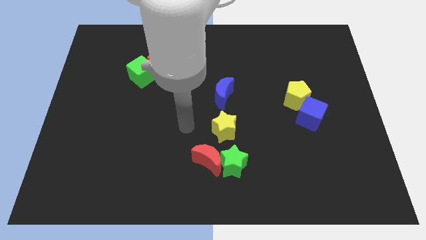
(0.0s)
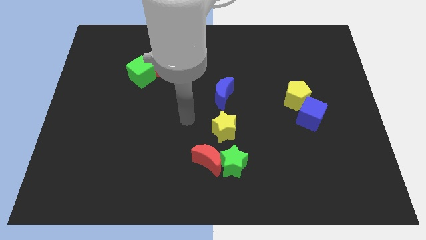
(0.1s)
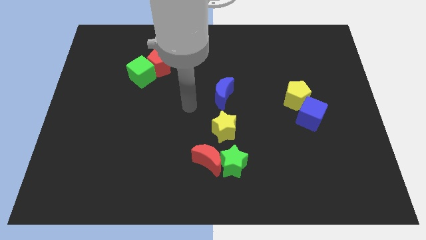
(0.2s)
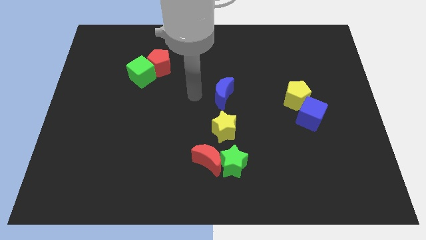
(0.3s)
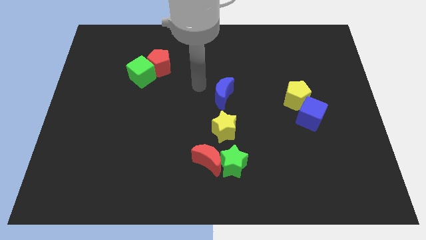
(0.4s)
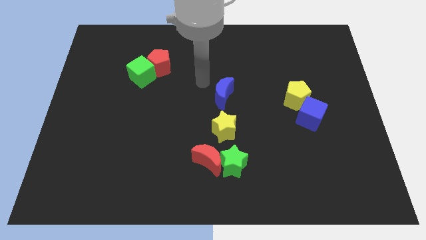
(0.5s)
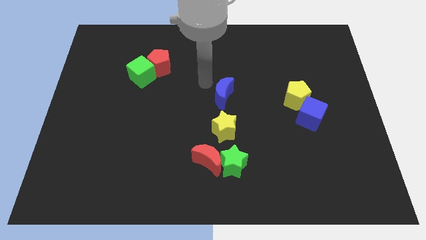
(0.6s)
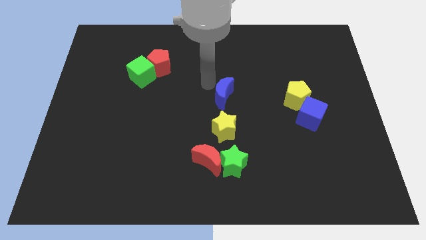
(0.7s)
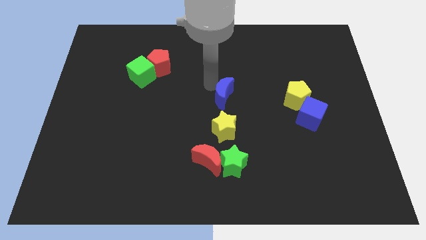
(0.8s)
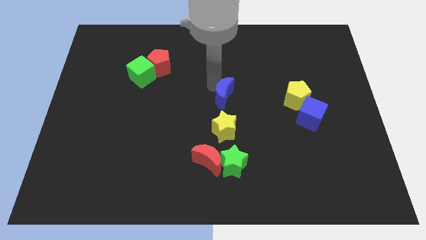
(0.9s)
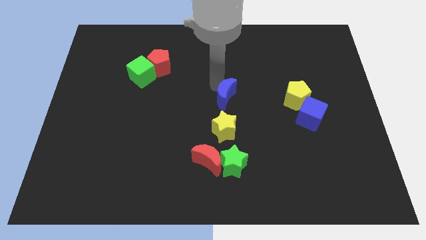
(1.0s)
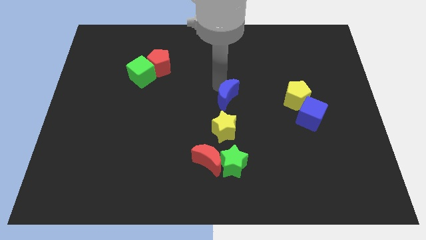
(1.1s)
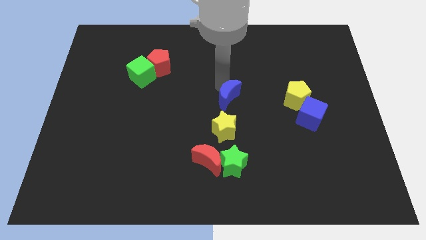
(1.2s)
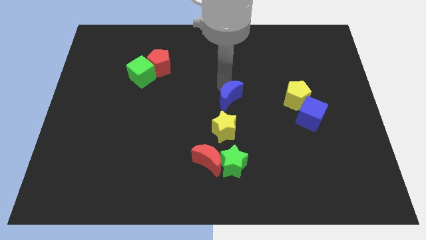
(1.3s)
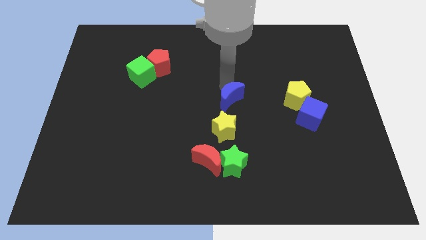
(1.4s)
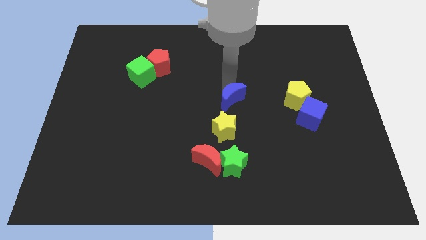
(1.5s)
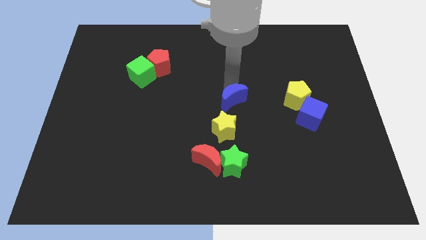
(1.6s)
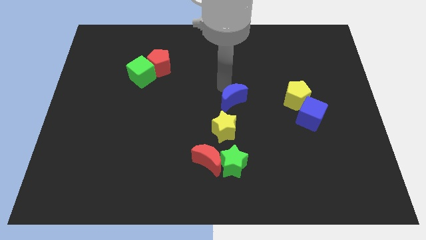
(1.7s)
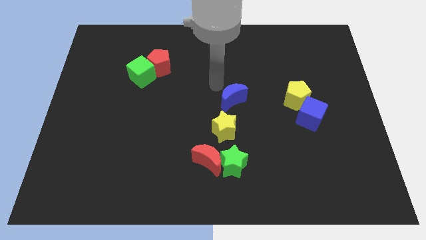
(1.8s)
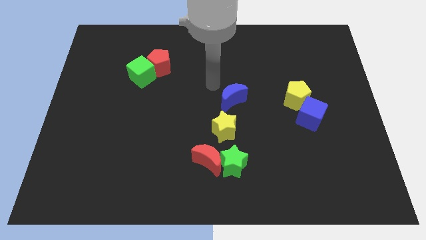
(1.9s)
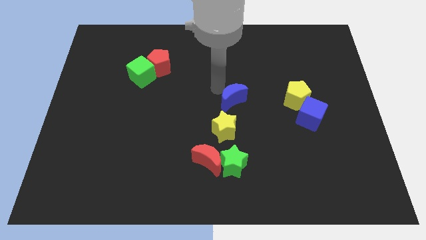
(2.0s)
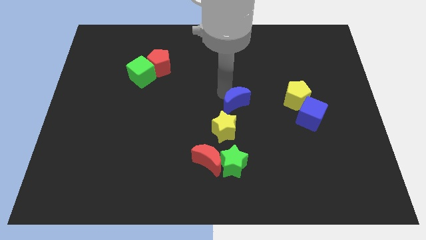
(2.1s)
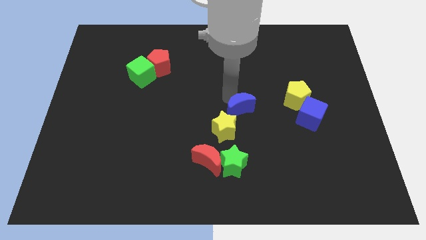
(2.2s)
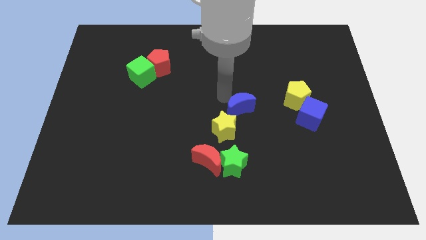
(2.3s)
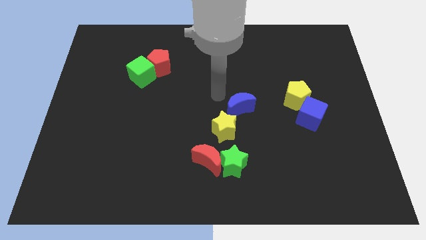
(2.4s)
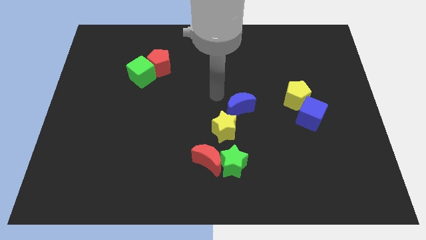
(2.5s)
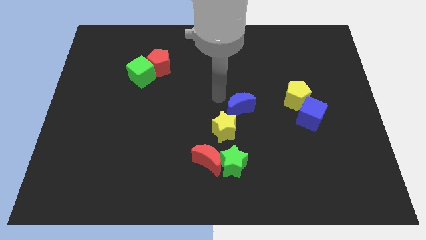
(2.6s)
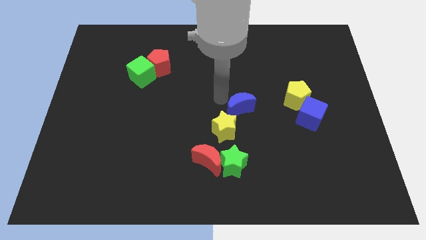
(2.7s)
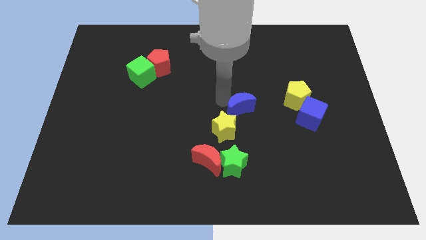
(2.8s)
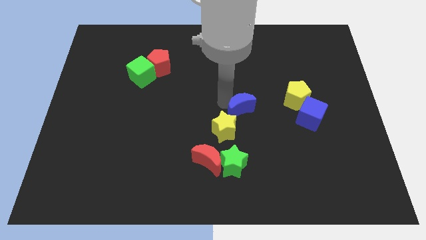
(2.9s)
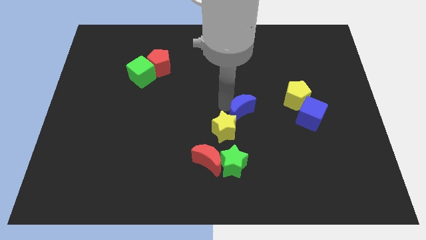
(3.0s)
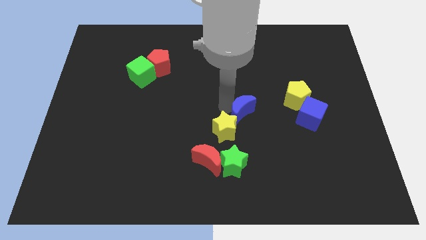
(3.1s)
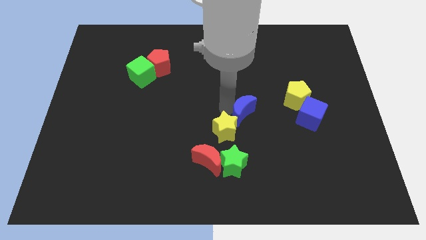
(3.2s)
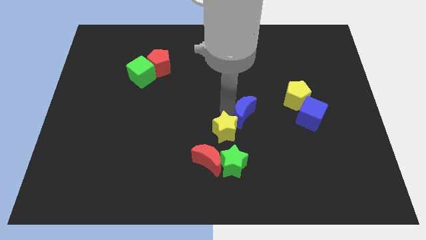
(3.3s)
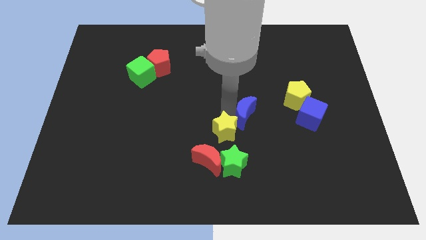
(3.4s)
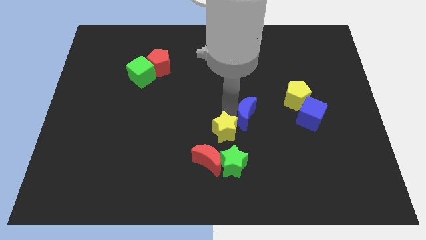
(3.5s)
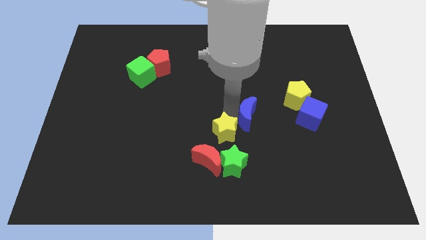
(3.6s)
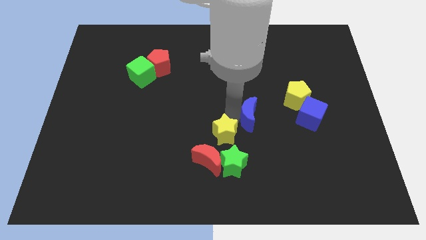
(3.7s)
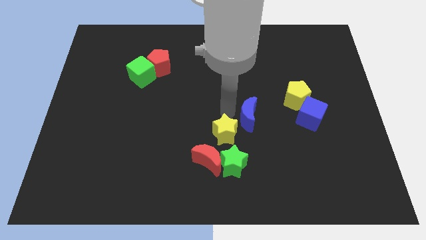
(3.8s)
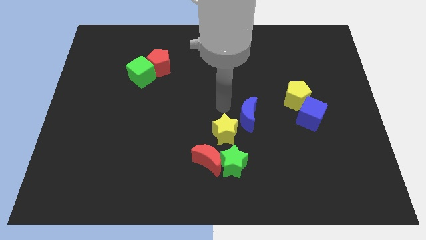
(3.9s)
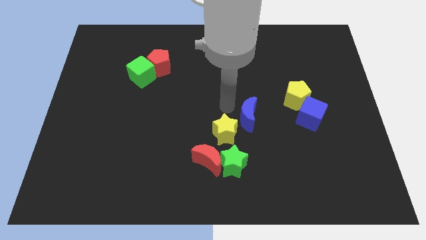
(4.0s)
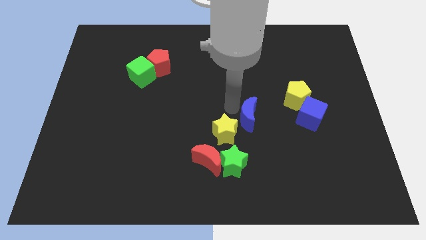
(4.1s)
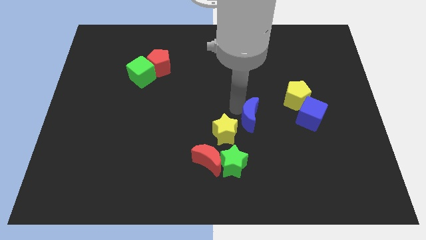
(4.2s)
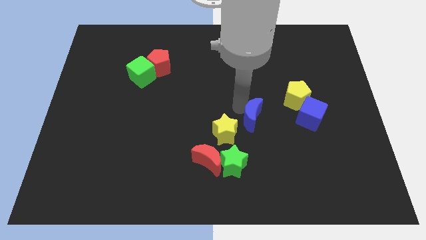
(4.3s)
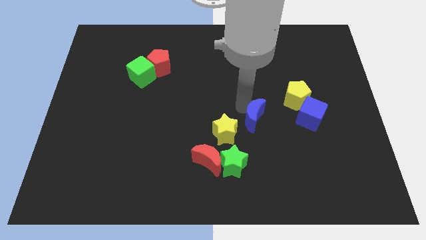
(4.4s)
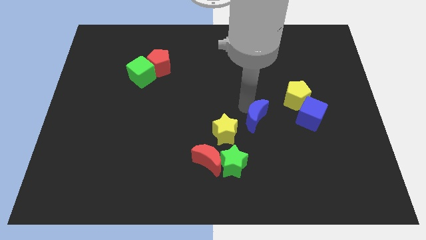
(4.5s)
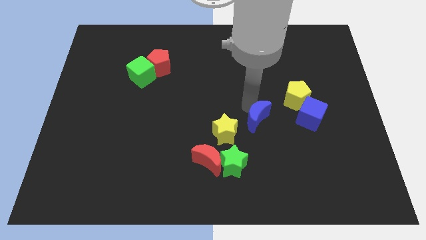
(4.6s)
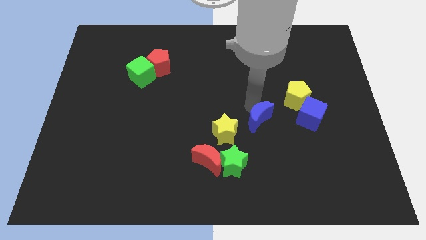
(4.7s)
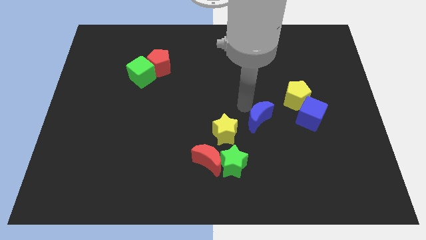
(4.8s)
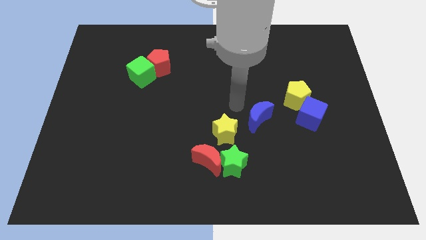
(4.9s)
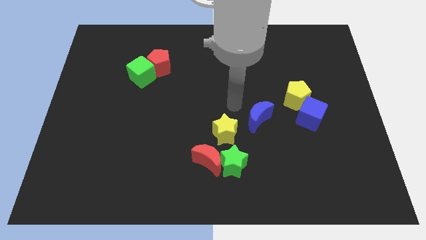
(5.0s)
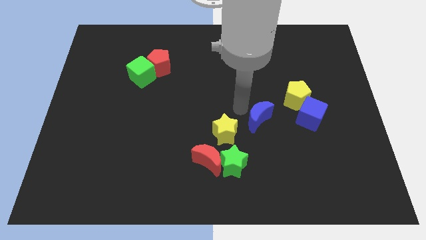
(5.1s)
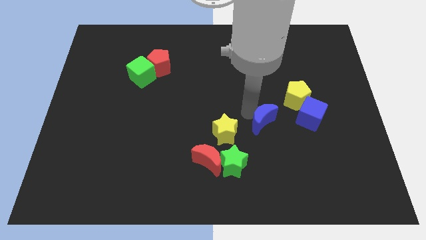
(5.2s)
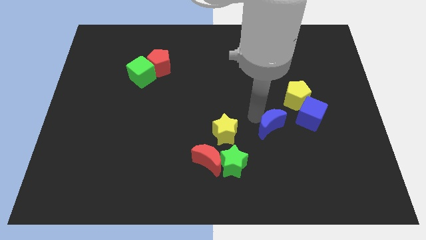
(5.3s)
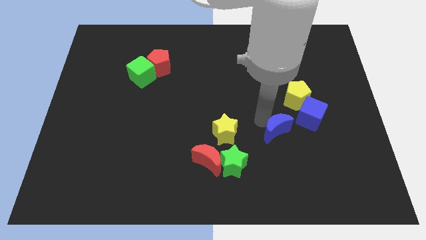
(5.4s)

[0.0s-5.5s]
move the blue moon diagonally down and to the left of the blue cube

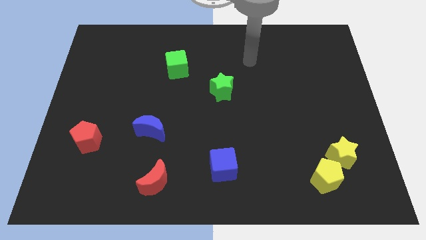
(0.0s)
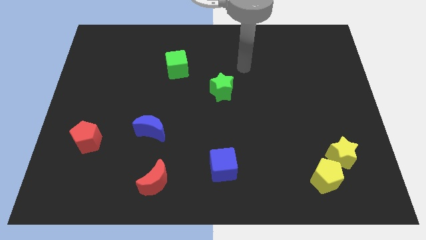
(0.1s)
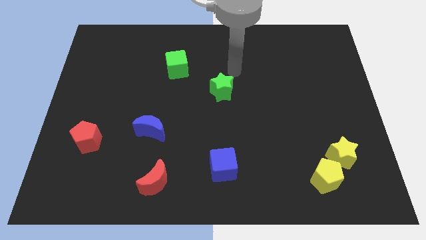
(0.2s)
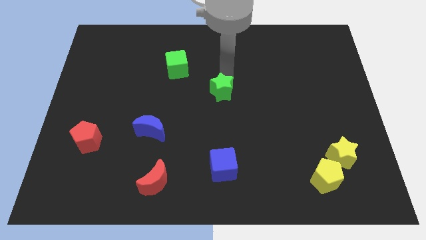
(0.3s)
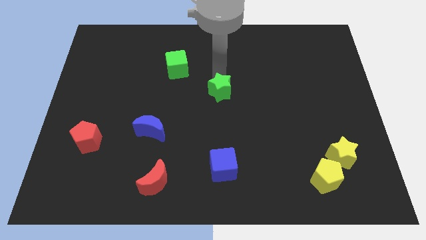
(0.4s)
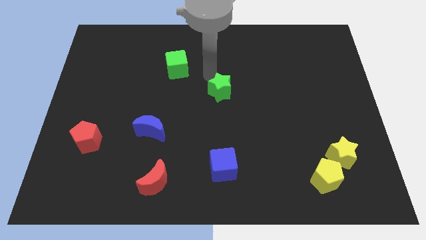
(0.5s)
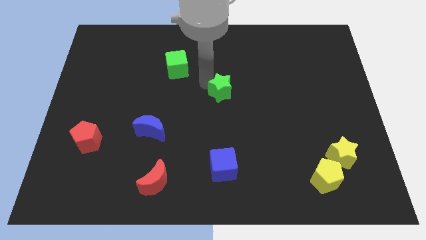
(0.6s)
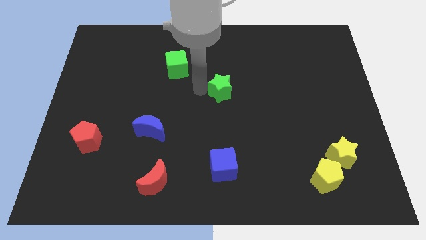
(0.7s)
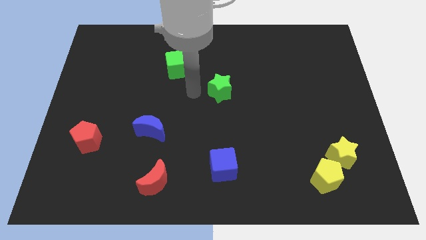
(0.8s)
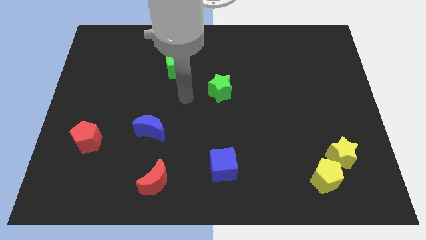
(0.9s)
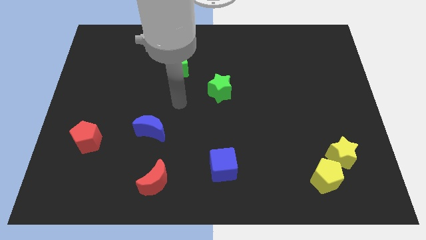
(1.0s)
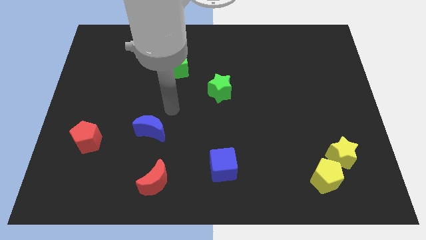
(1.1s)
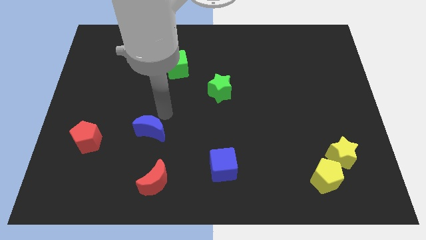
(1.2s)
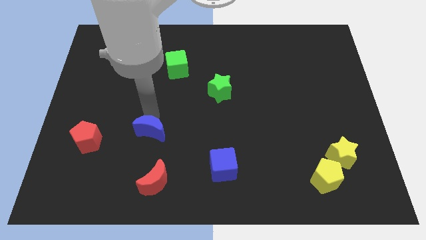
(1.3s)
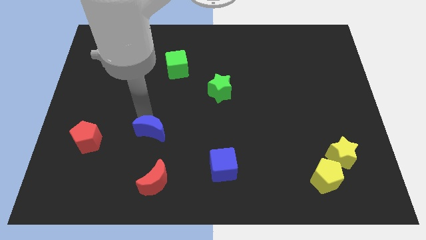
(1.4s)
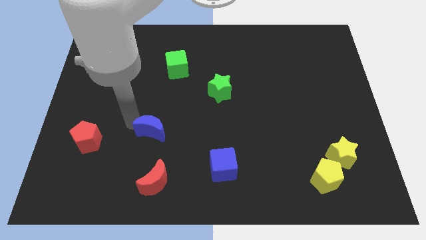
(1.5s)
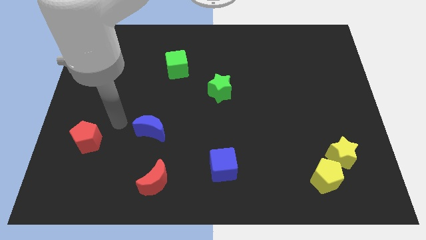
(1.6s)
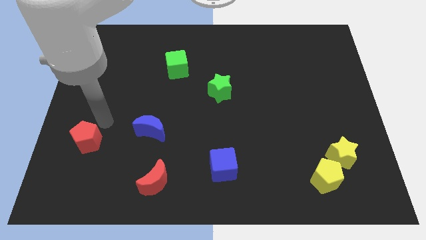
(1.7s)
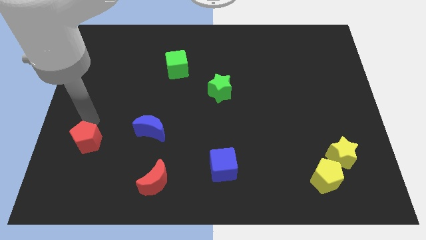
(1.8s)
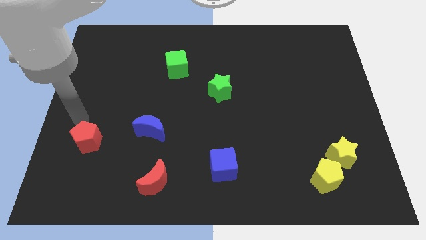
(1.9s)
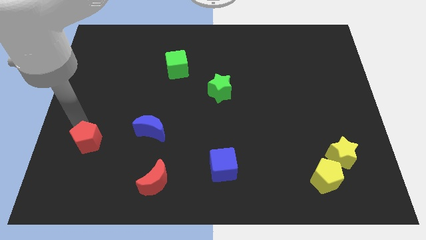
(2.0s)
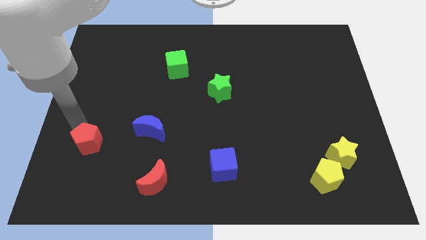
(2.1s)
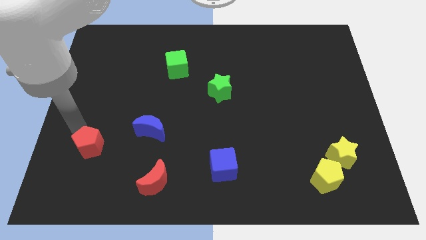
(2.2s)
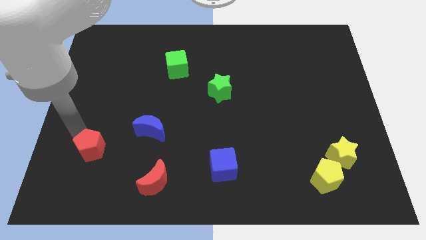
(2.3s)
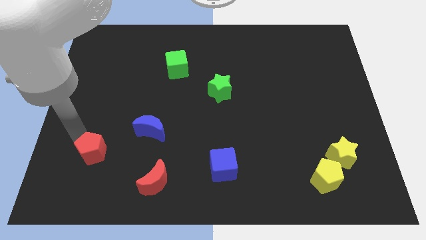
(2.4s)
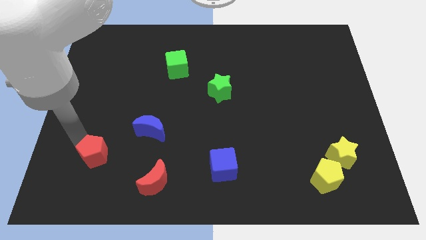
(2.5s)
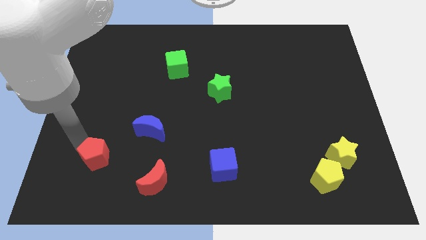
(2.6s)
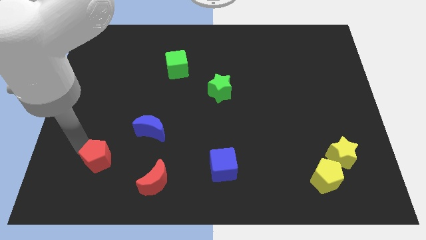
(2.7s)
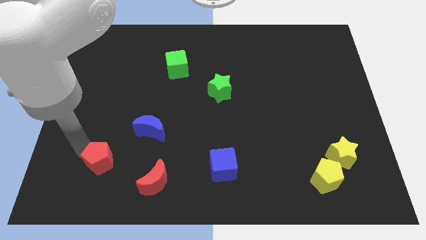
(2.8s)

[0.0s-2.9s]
push the red pentagon left of the red moon
